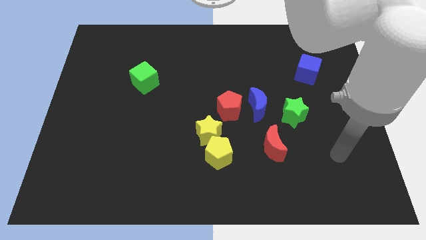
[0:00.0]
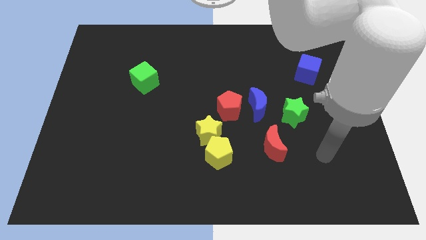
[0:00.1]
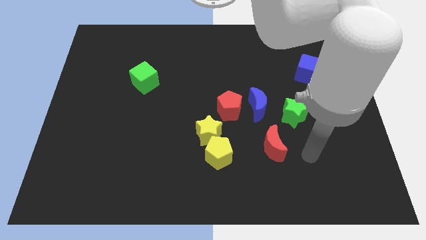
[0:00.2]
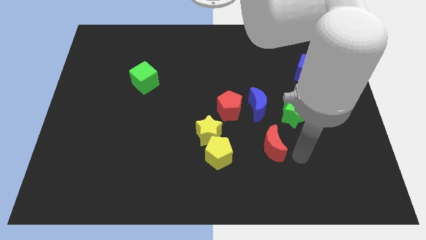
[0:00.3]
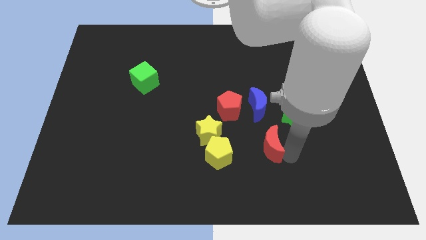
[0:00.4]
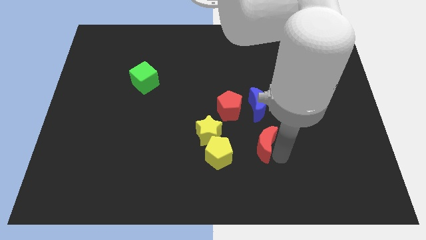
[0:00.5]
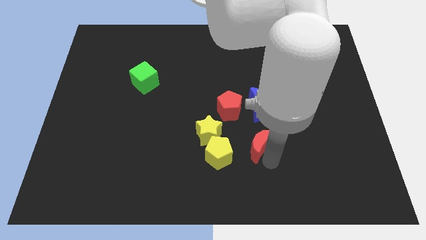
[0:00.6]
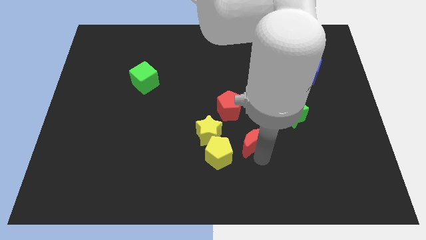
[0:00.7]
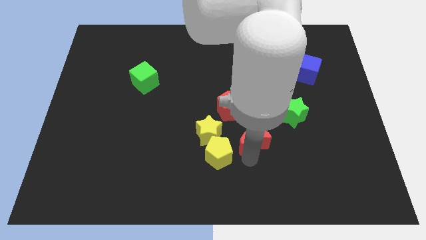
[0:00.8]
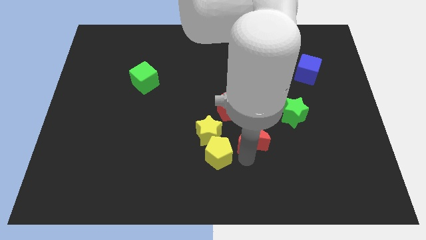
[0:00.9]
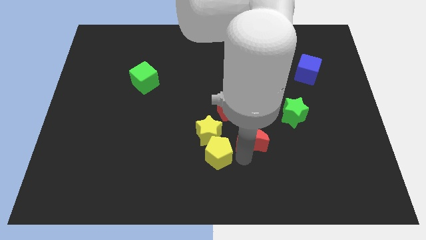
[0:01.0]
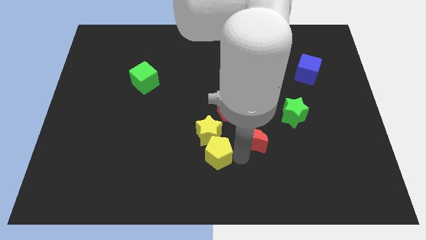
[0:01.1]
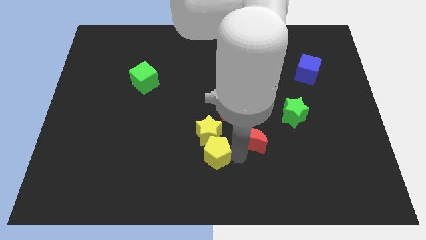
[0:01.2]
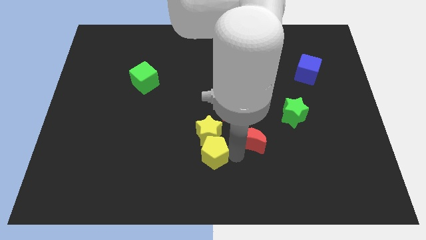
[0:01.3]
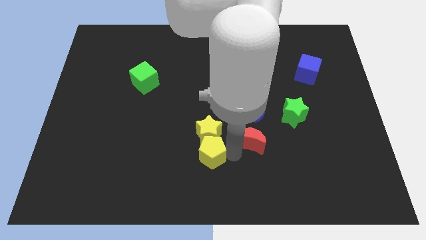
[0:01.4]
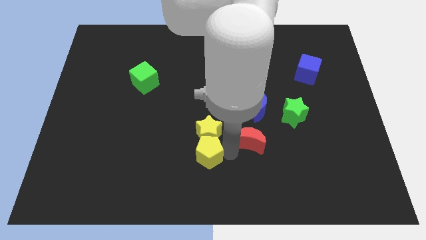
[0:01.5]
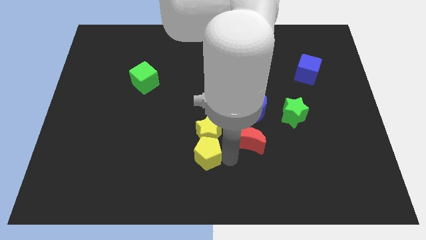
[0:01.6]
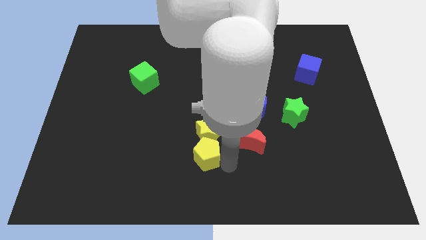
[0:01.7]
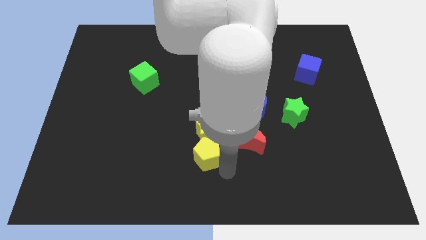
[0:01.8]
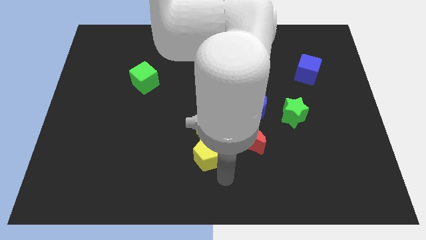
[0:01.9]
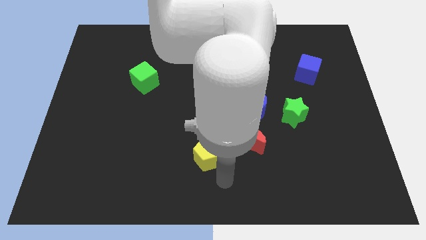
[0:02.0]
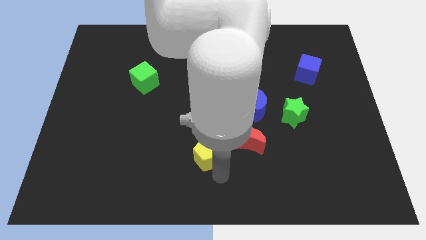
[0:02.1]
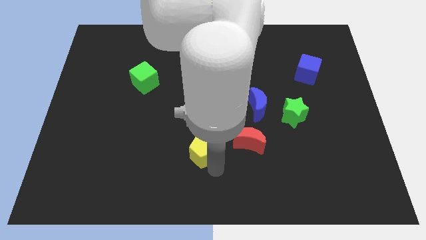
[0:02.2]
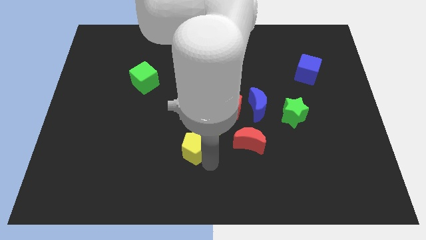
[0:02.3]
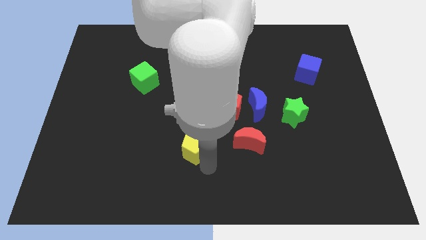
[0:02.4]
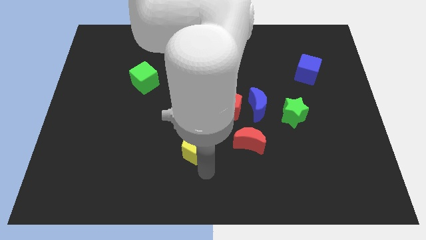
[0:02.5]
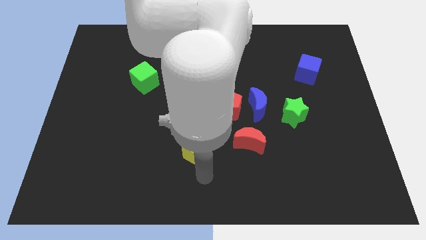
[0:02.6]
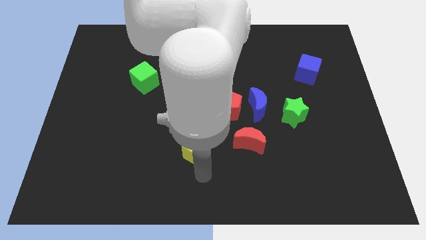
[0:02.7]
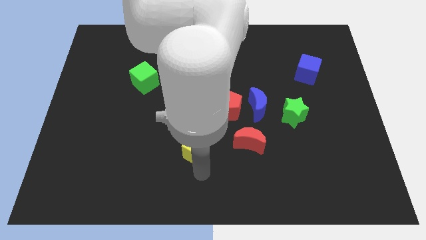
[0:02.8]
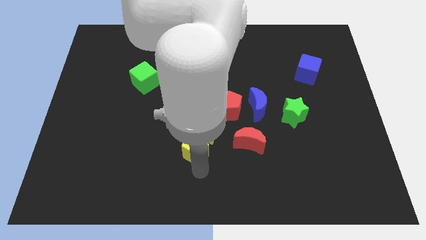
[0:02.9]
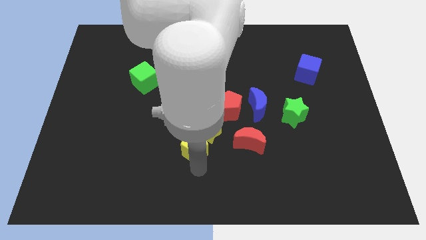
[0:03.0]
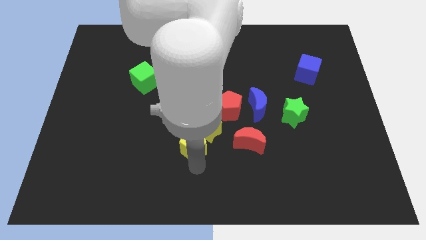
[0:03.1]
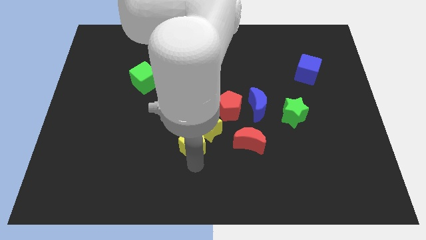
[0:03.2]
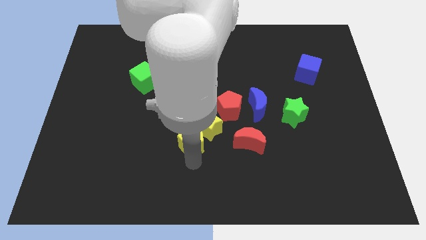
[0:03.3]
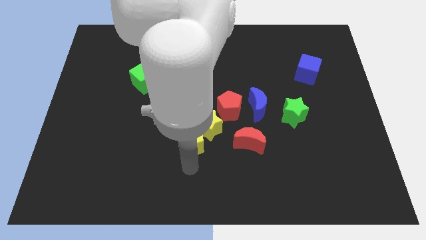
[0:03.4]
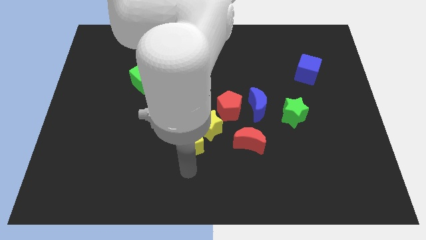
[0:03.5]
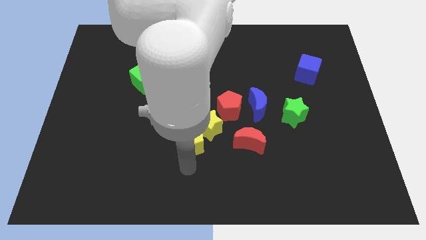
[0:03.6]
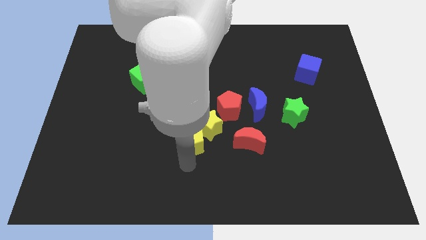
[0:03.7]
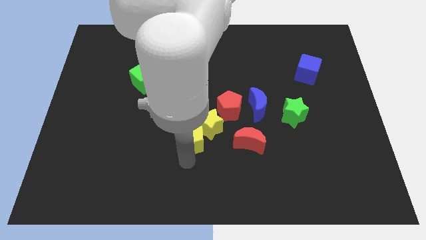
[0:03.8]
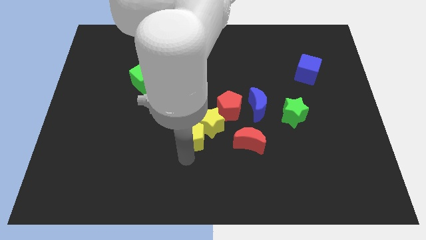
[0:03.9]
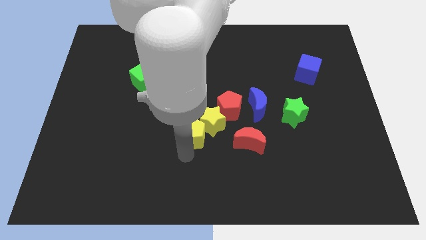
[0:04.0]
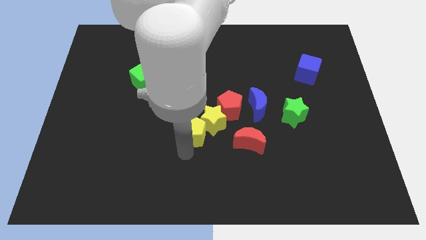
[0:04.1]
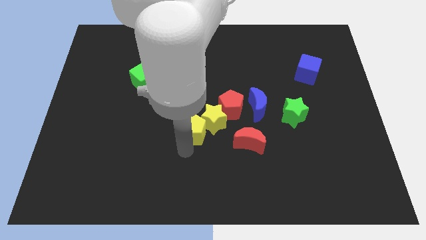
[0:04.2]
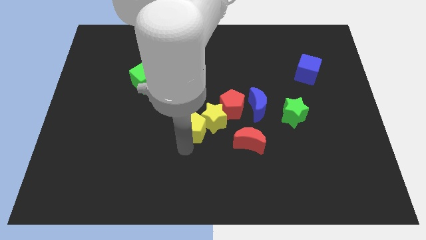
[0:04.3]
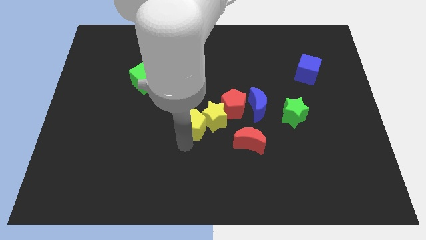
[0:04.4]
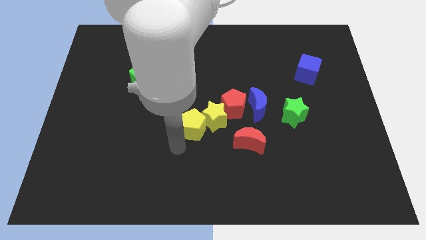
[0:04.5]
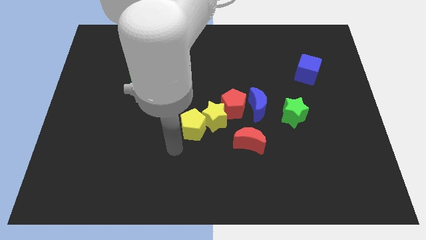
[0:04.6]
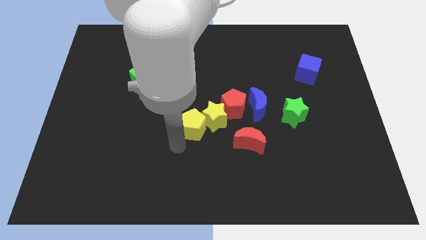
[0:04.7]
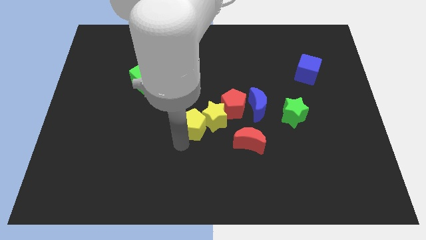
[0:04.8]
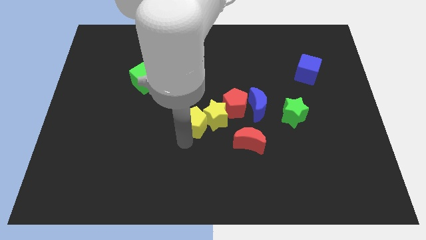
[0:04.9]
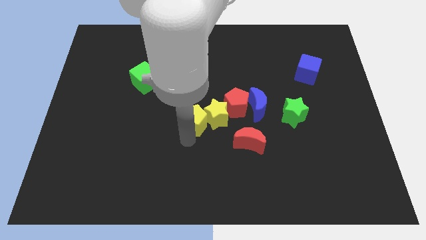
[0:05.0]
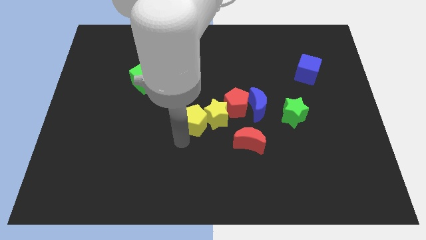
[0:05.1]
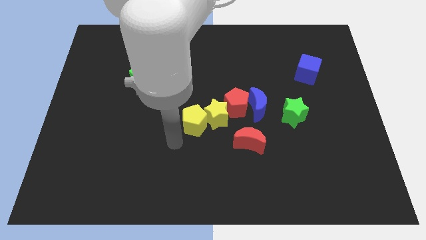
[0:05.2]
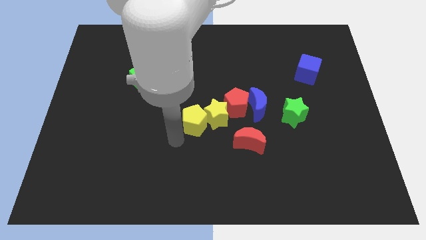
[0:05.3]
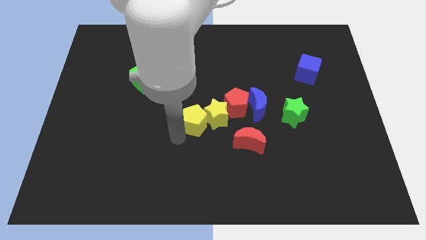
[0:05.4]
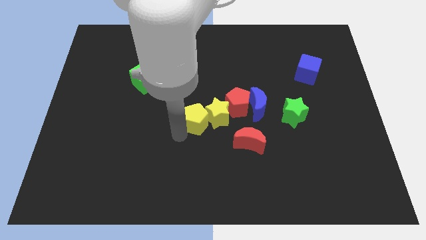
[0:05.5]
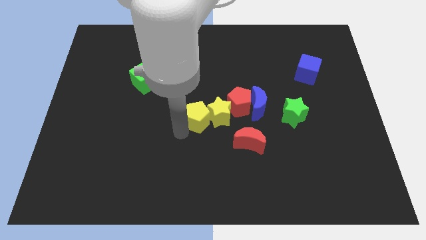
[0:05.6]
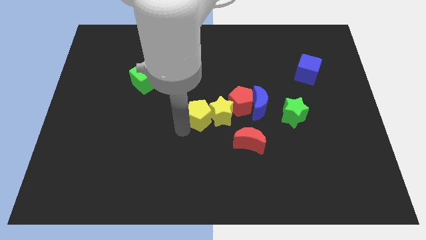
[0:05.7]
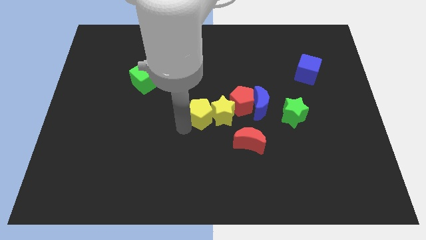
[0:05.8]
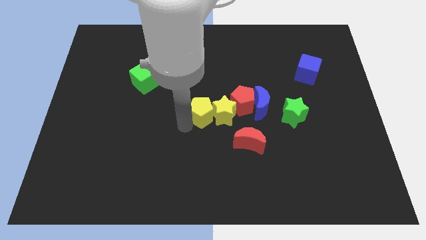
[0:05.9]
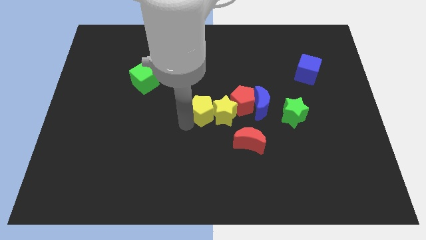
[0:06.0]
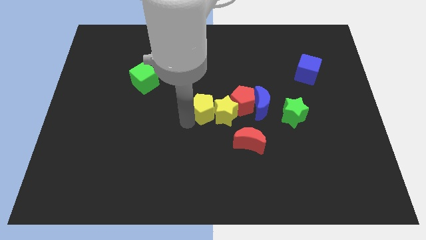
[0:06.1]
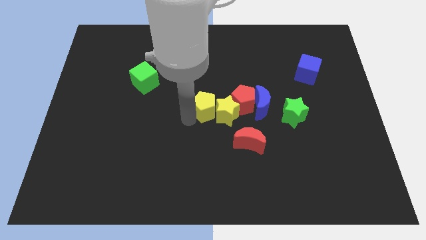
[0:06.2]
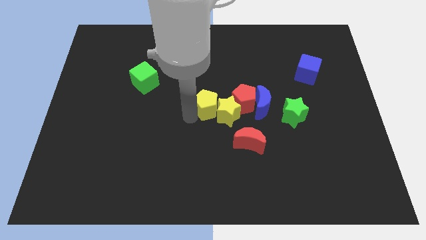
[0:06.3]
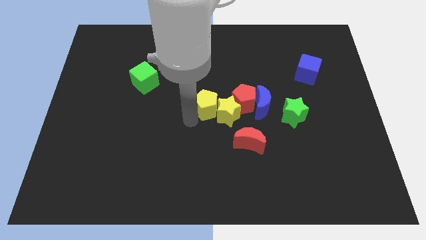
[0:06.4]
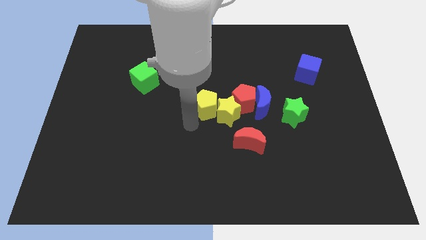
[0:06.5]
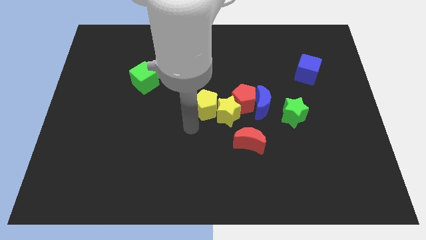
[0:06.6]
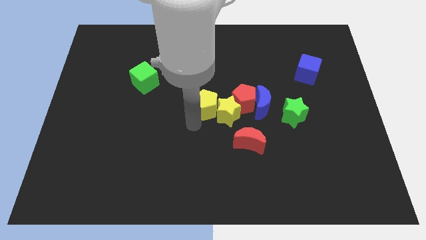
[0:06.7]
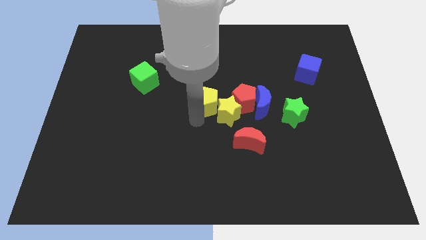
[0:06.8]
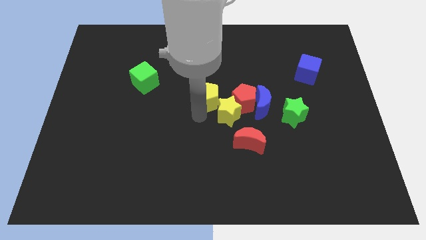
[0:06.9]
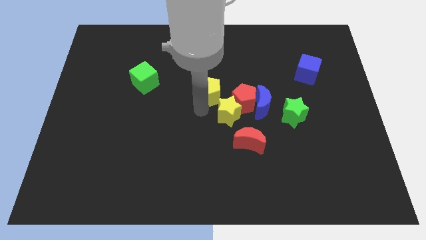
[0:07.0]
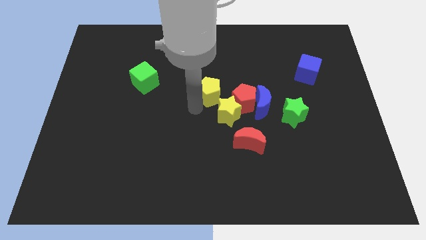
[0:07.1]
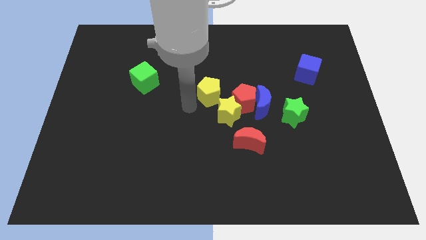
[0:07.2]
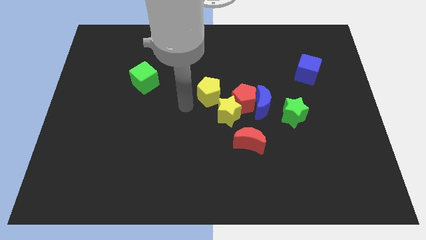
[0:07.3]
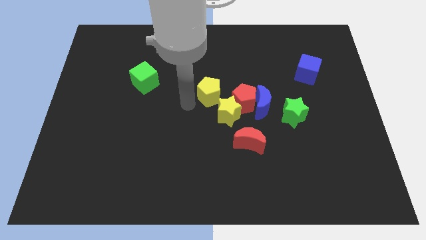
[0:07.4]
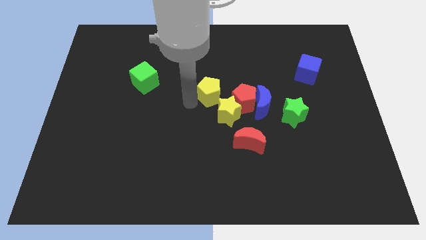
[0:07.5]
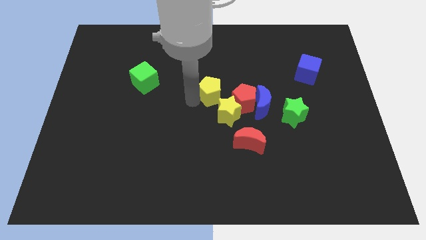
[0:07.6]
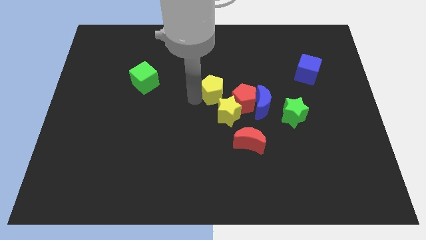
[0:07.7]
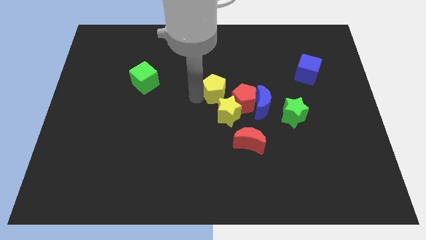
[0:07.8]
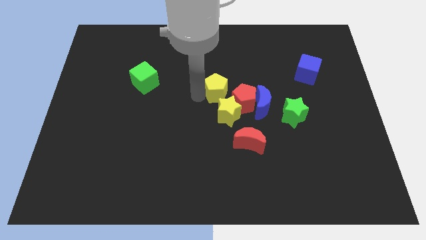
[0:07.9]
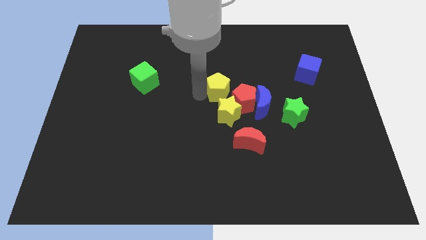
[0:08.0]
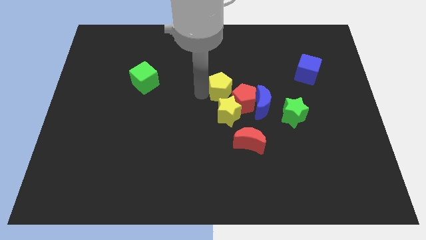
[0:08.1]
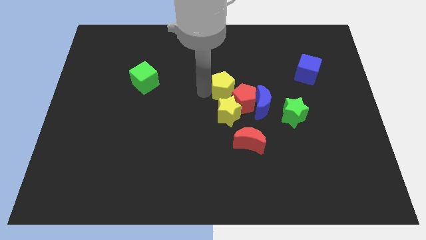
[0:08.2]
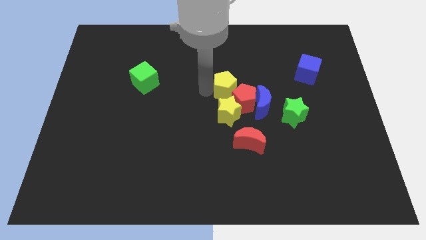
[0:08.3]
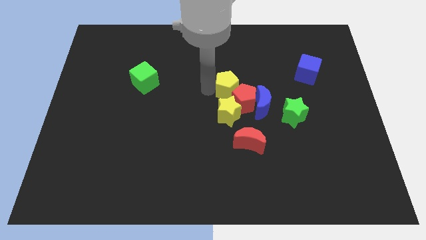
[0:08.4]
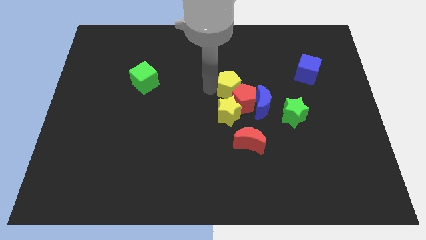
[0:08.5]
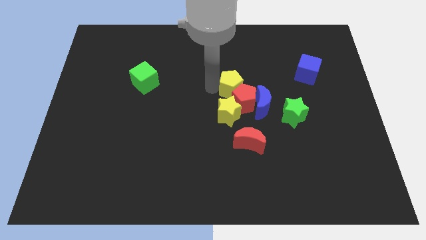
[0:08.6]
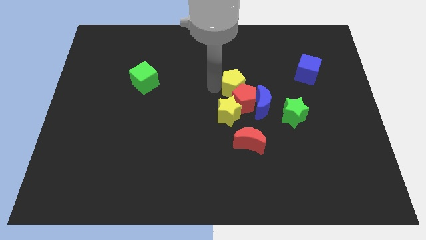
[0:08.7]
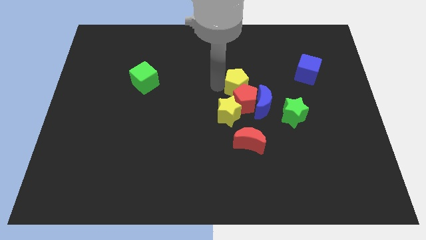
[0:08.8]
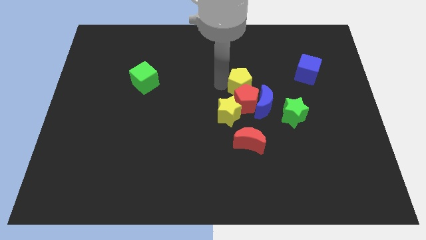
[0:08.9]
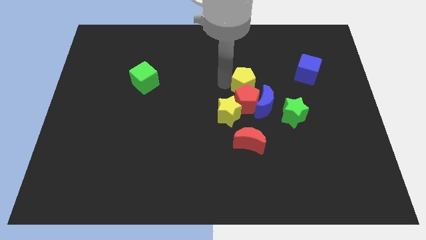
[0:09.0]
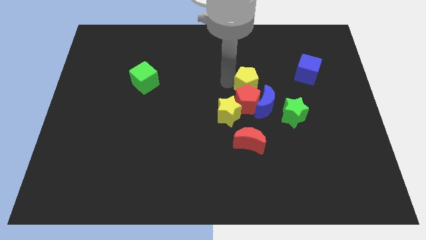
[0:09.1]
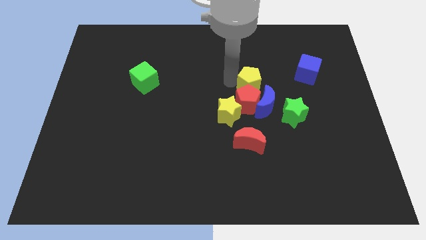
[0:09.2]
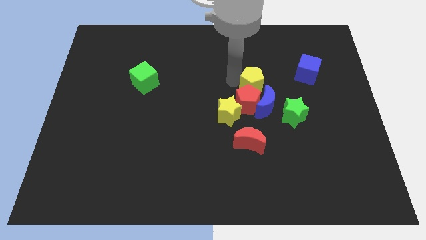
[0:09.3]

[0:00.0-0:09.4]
slide the yellow pentagon to the top left of the green star
